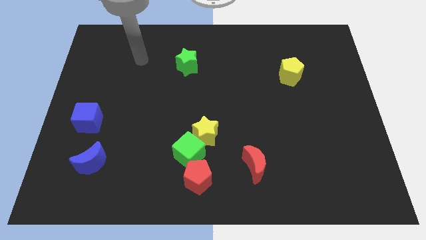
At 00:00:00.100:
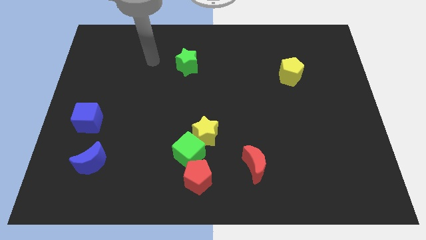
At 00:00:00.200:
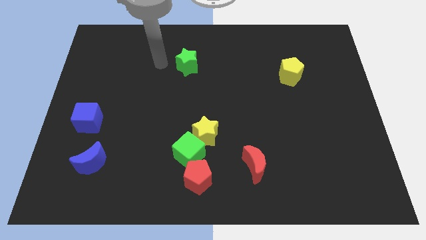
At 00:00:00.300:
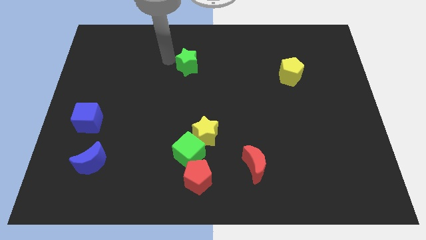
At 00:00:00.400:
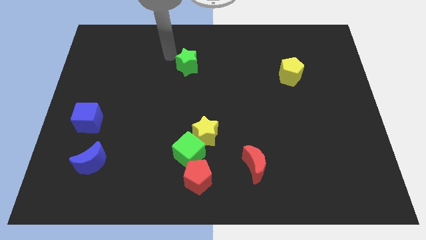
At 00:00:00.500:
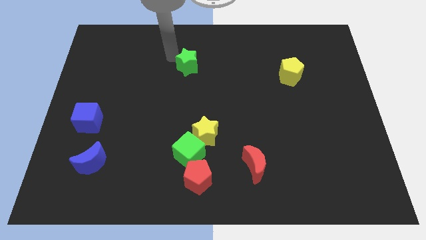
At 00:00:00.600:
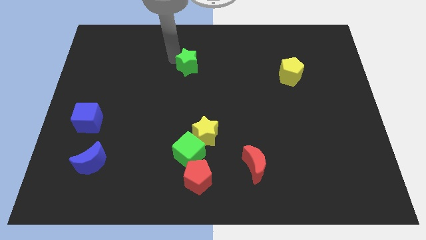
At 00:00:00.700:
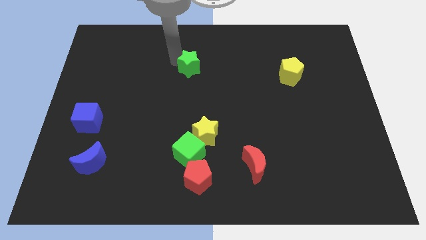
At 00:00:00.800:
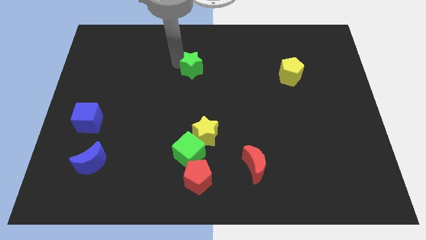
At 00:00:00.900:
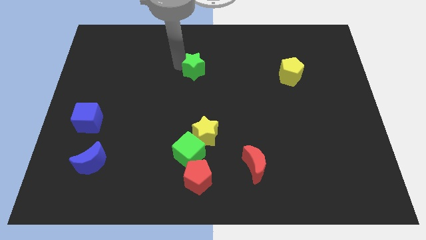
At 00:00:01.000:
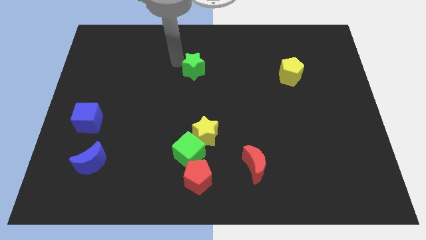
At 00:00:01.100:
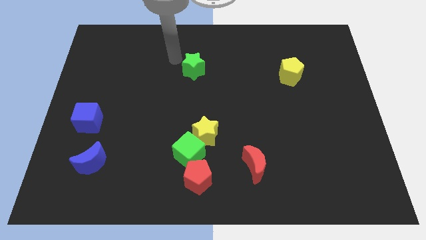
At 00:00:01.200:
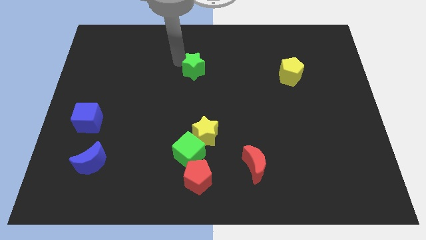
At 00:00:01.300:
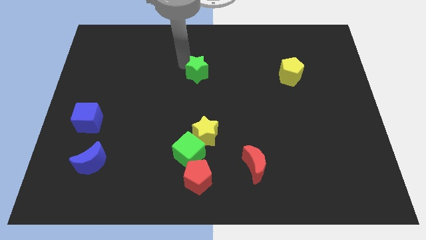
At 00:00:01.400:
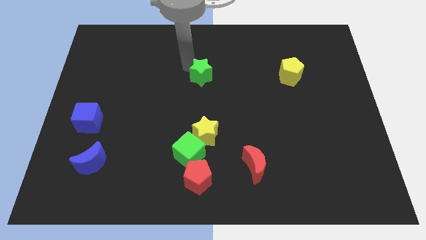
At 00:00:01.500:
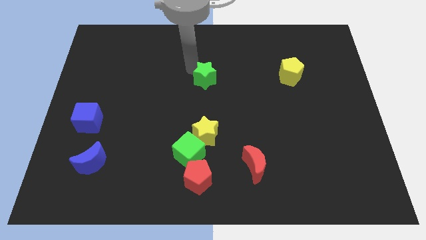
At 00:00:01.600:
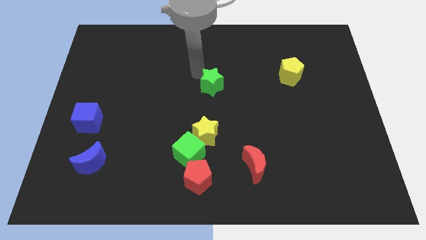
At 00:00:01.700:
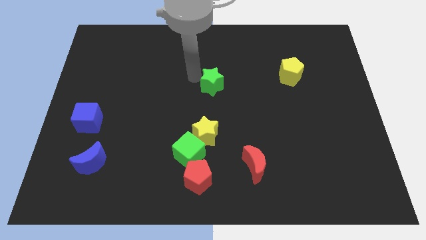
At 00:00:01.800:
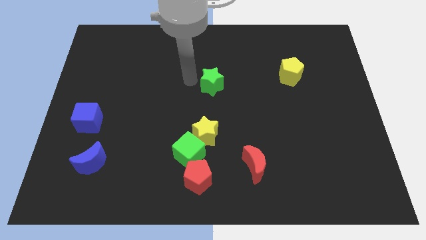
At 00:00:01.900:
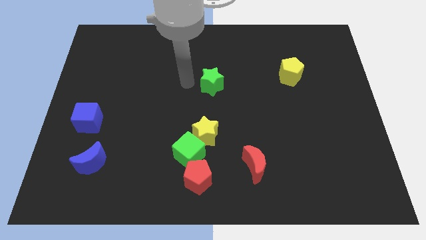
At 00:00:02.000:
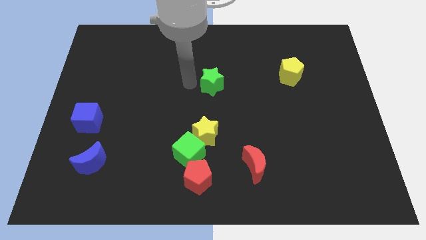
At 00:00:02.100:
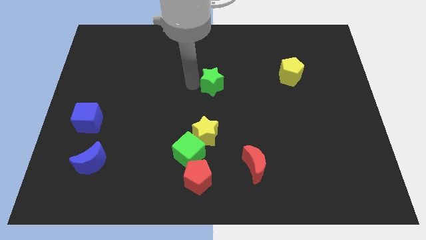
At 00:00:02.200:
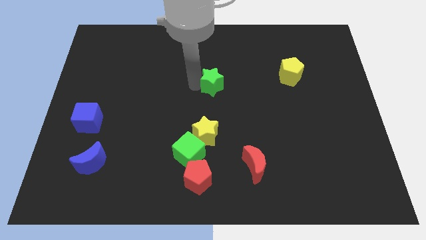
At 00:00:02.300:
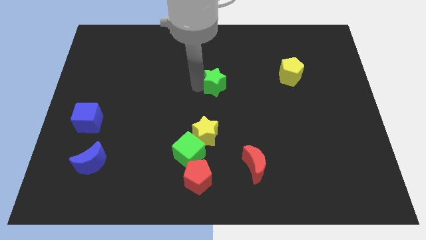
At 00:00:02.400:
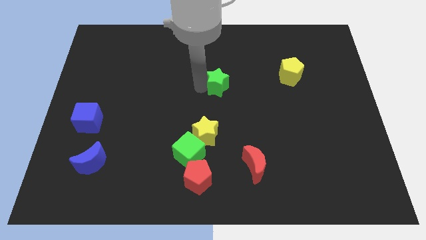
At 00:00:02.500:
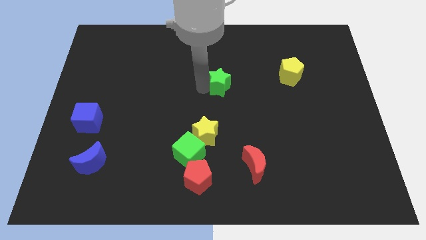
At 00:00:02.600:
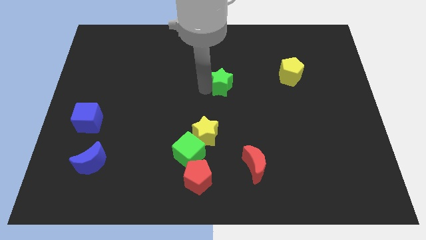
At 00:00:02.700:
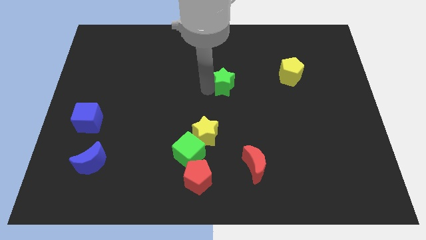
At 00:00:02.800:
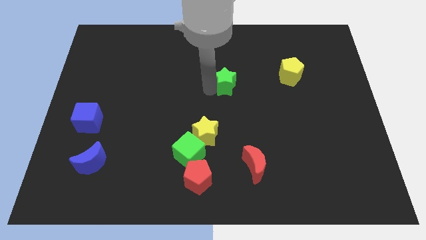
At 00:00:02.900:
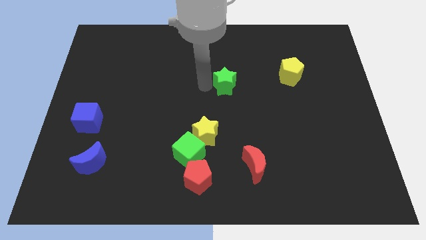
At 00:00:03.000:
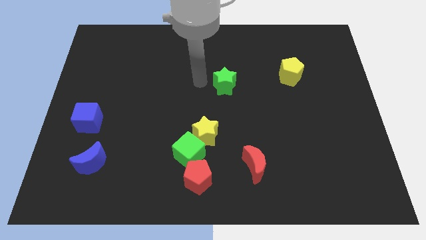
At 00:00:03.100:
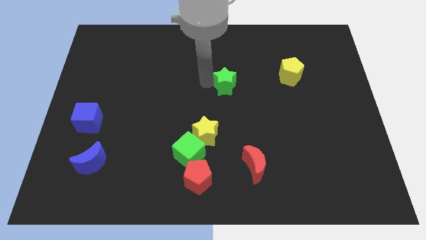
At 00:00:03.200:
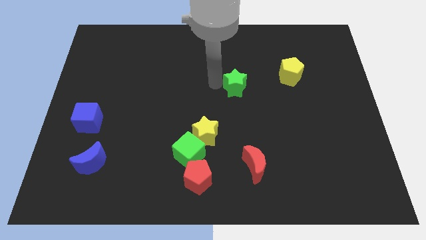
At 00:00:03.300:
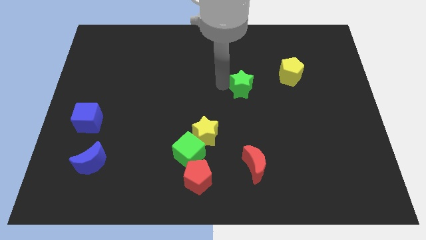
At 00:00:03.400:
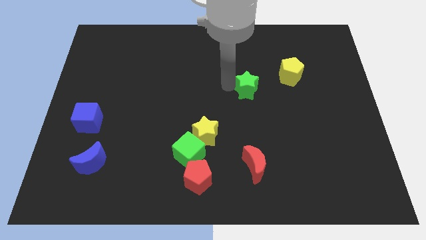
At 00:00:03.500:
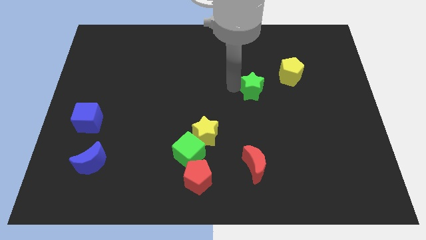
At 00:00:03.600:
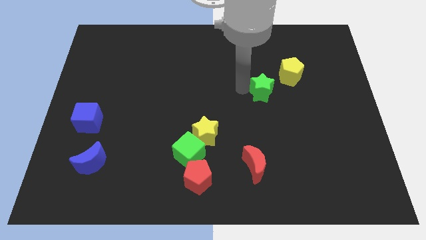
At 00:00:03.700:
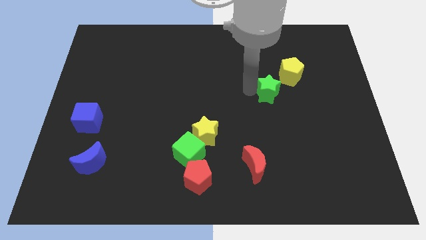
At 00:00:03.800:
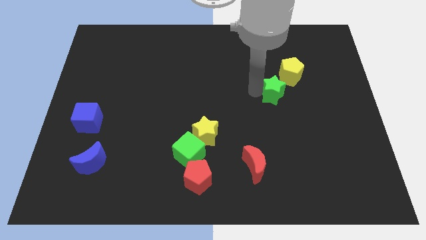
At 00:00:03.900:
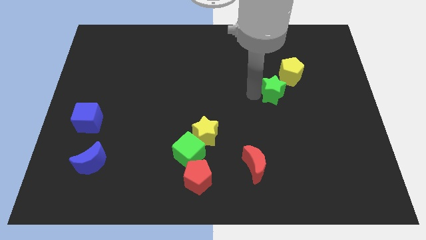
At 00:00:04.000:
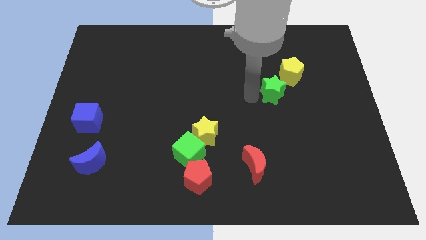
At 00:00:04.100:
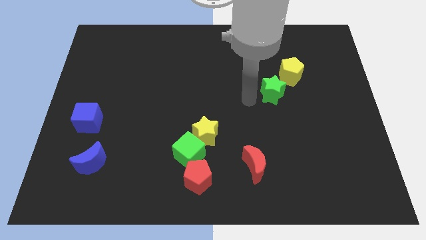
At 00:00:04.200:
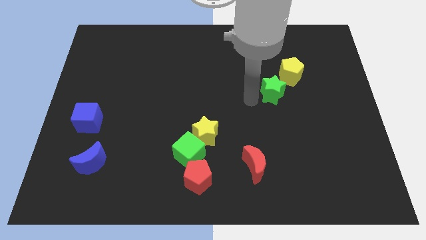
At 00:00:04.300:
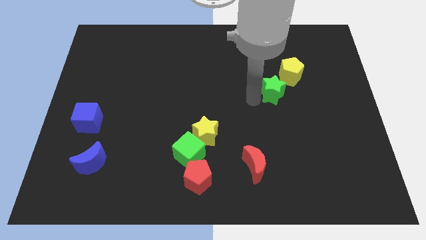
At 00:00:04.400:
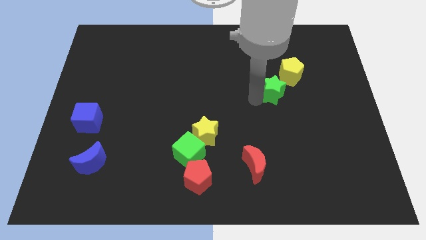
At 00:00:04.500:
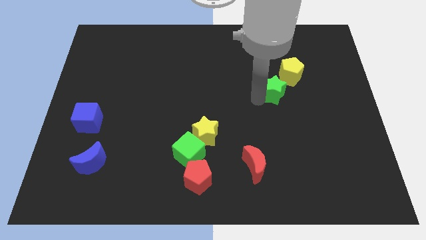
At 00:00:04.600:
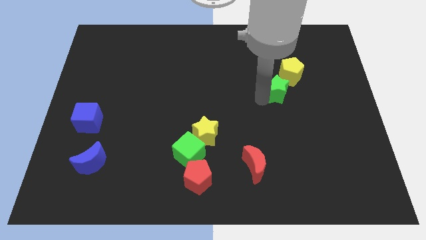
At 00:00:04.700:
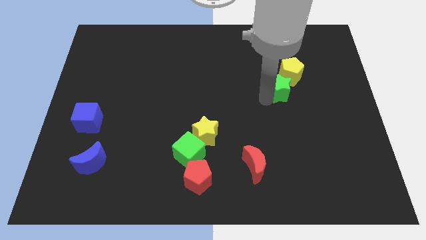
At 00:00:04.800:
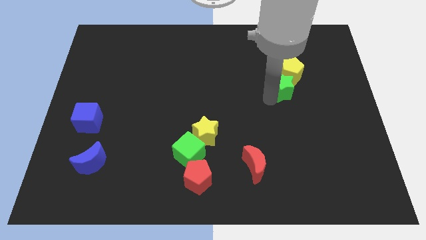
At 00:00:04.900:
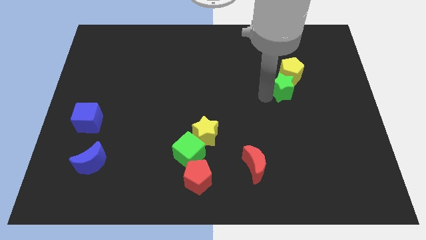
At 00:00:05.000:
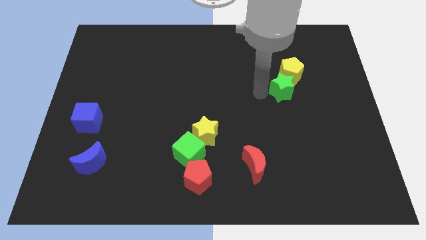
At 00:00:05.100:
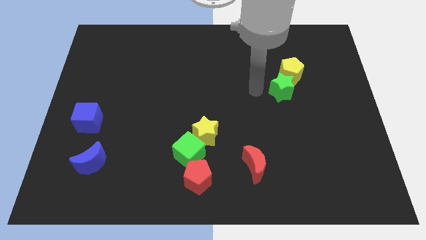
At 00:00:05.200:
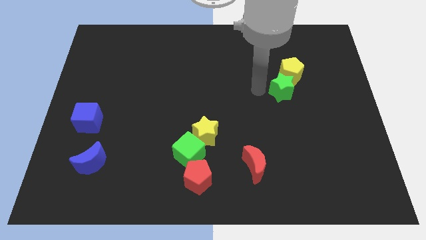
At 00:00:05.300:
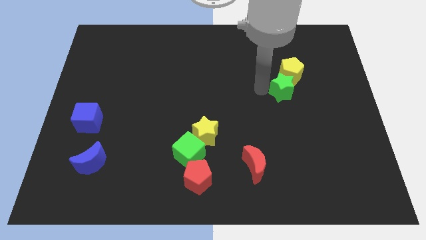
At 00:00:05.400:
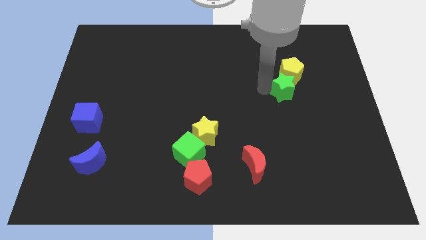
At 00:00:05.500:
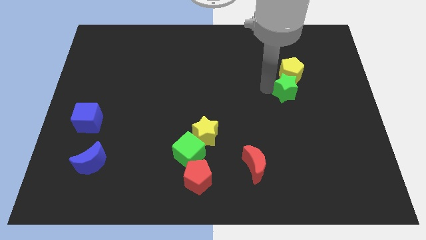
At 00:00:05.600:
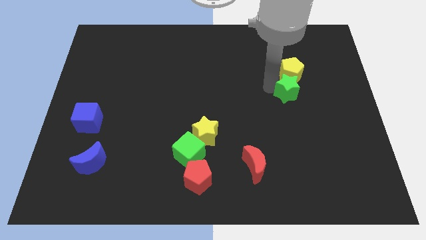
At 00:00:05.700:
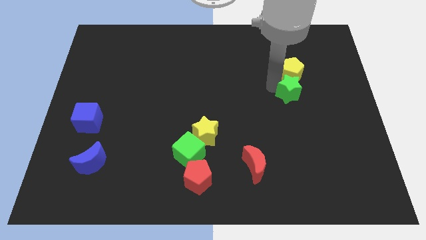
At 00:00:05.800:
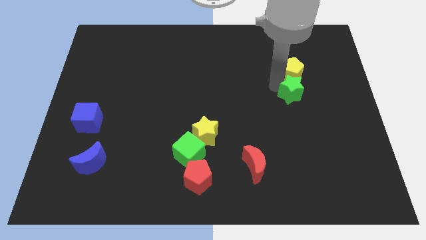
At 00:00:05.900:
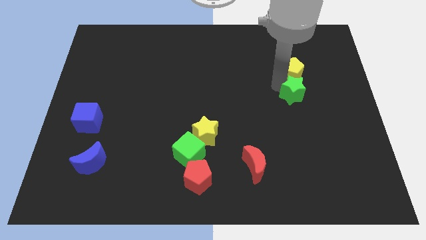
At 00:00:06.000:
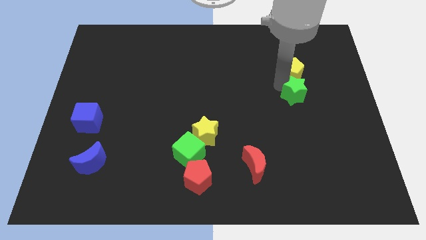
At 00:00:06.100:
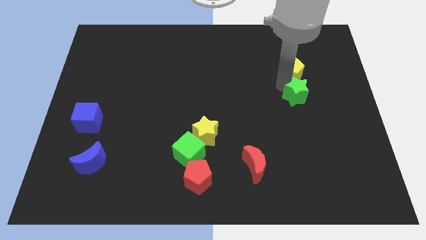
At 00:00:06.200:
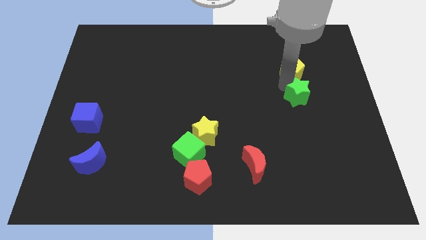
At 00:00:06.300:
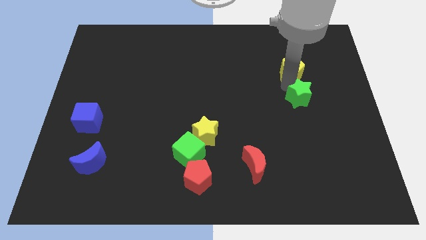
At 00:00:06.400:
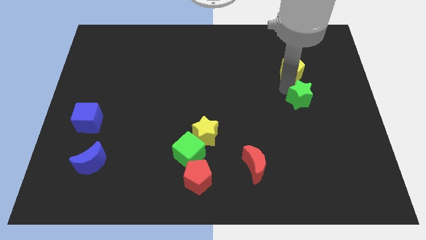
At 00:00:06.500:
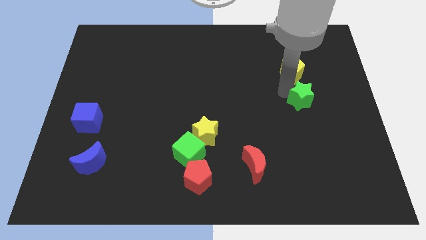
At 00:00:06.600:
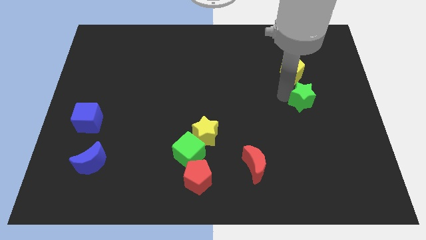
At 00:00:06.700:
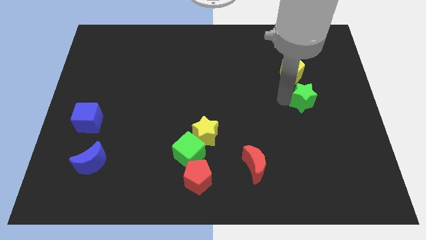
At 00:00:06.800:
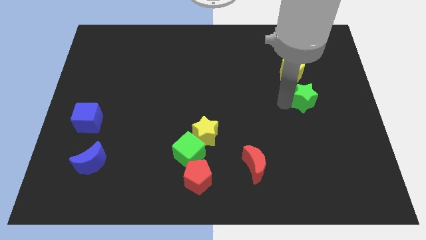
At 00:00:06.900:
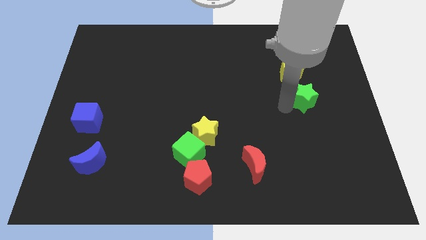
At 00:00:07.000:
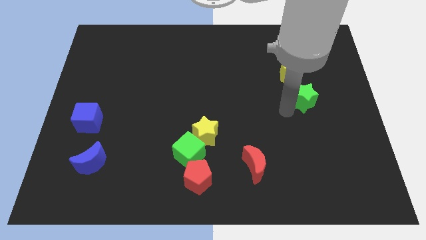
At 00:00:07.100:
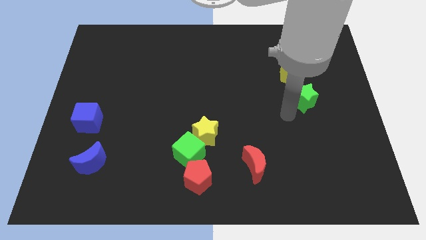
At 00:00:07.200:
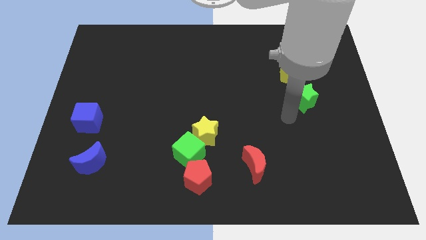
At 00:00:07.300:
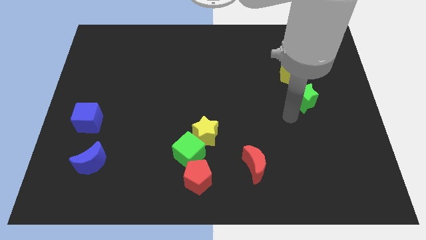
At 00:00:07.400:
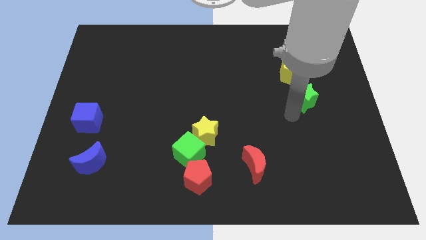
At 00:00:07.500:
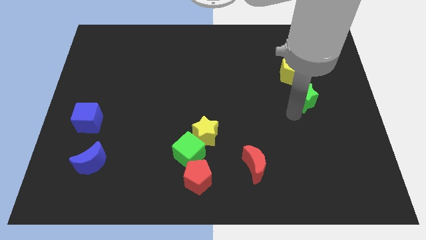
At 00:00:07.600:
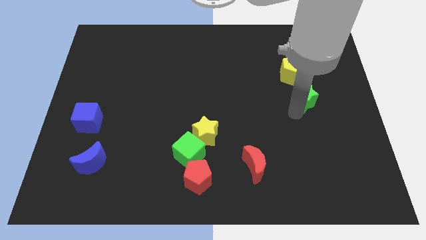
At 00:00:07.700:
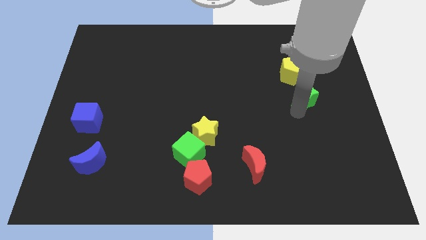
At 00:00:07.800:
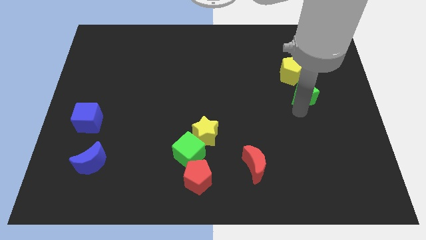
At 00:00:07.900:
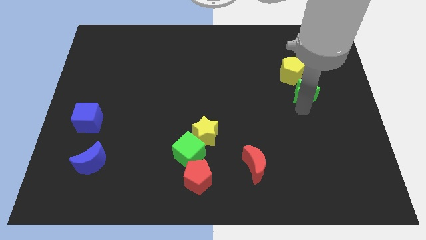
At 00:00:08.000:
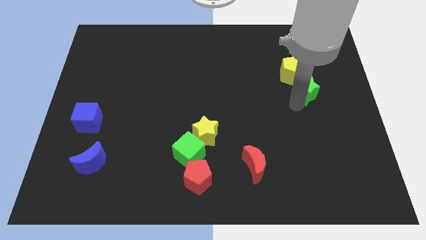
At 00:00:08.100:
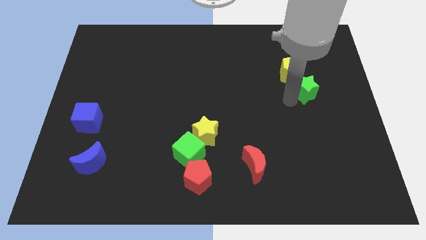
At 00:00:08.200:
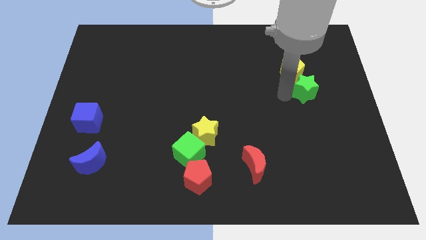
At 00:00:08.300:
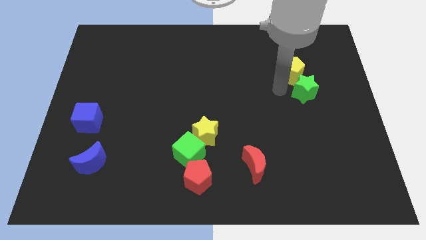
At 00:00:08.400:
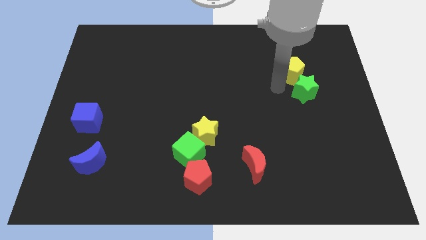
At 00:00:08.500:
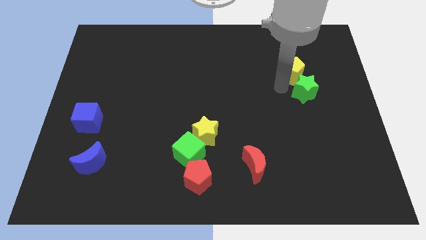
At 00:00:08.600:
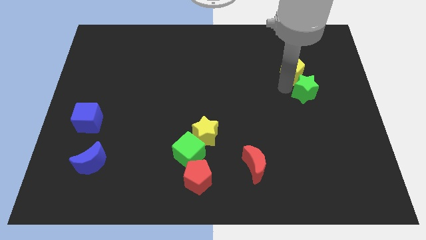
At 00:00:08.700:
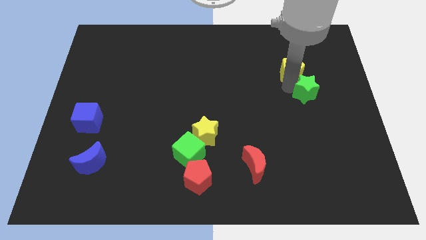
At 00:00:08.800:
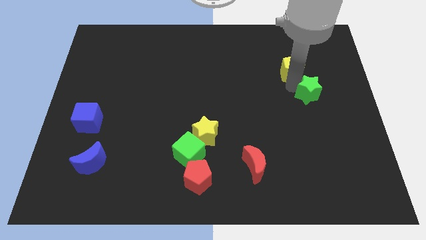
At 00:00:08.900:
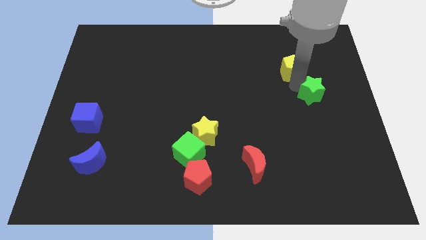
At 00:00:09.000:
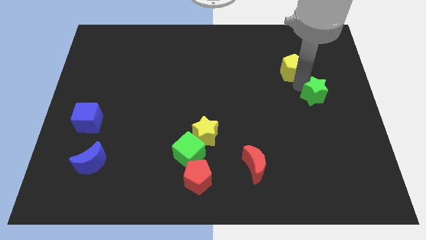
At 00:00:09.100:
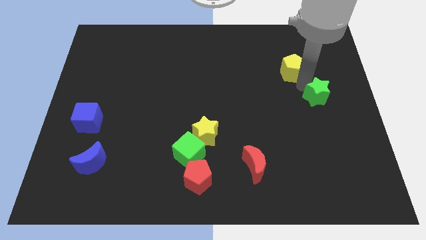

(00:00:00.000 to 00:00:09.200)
slide the green star to the center right
